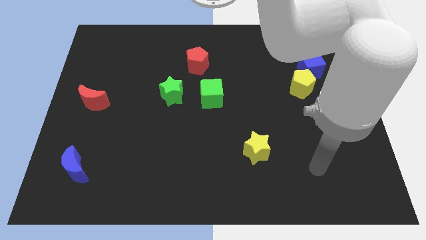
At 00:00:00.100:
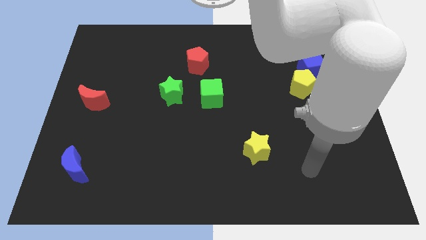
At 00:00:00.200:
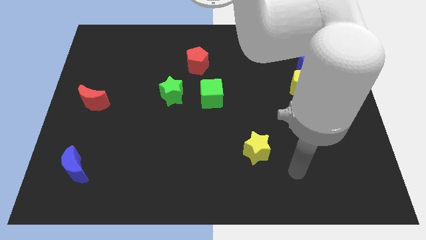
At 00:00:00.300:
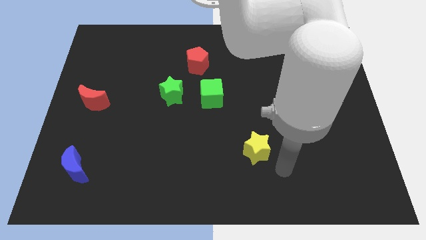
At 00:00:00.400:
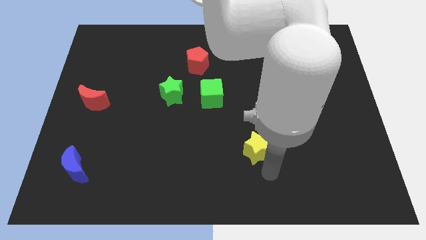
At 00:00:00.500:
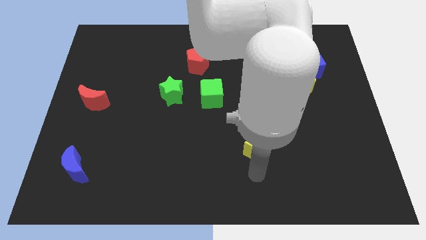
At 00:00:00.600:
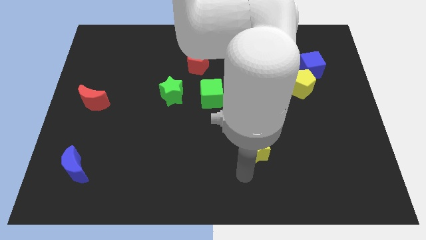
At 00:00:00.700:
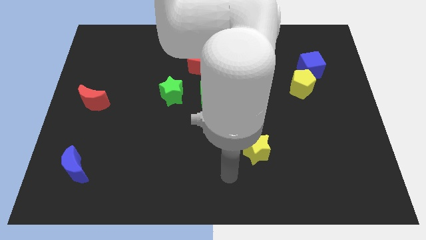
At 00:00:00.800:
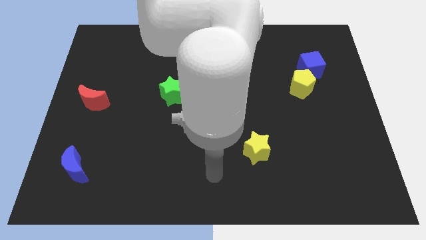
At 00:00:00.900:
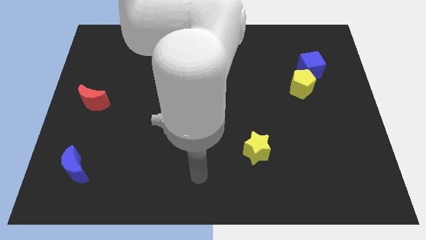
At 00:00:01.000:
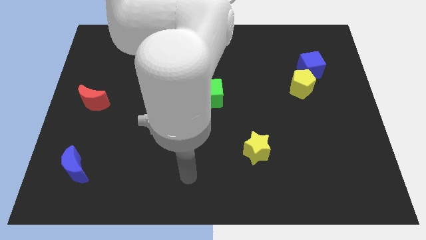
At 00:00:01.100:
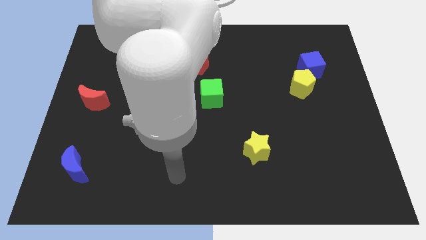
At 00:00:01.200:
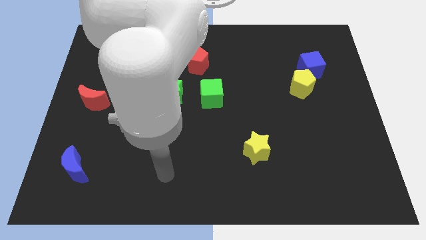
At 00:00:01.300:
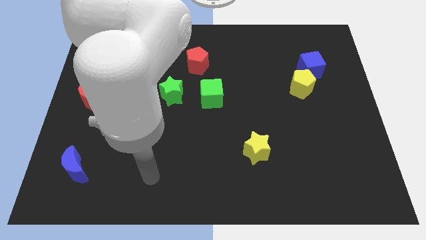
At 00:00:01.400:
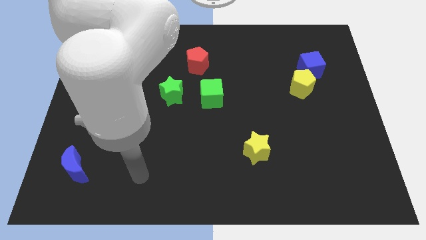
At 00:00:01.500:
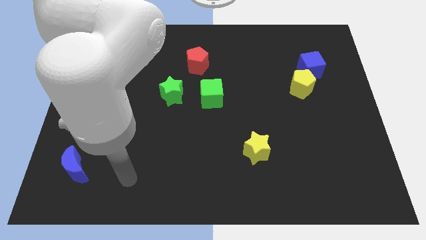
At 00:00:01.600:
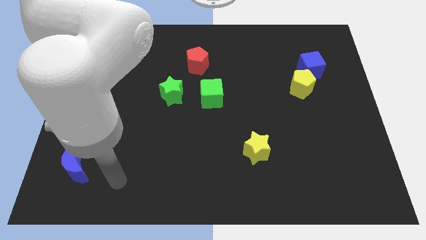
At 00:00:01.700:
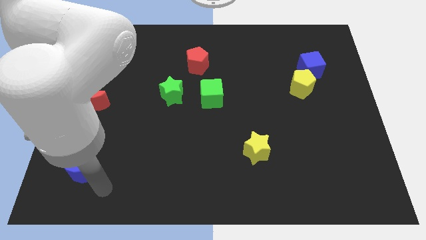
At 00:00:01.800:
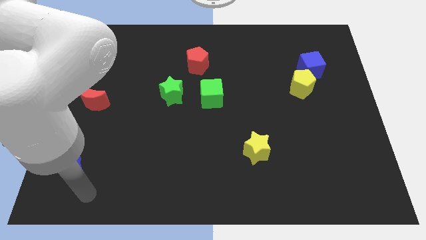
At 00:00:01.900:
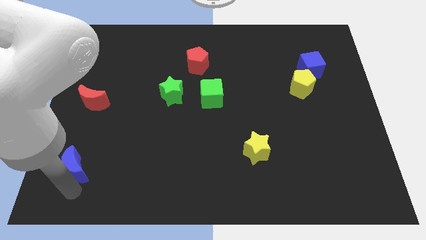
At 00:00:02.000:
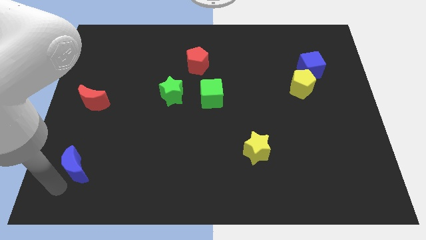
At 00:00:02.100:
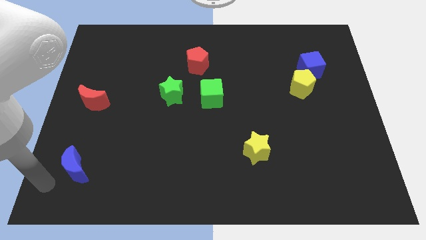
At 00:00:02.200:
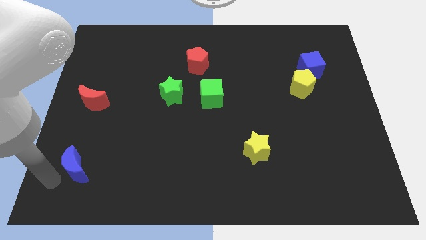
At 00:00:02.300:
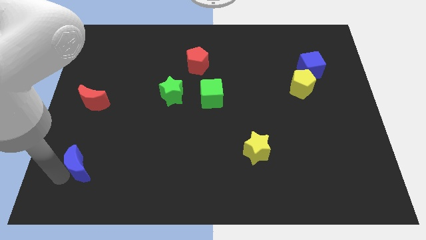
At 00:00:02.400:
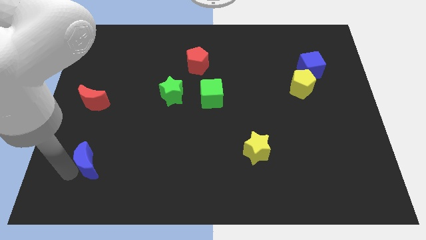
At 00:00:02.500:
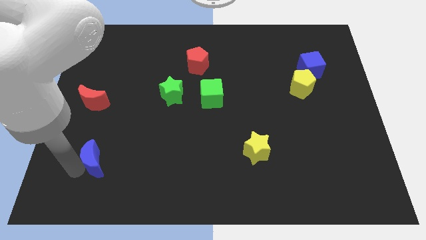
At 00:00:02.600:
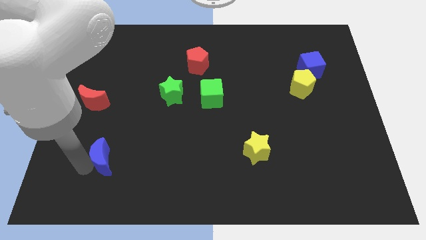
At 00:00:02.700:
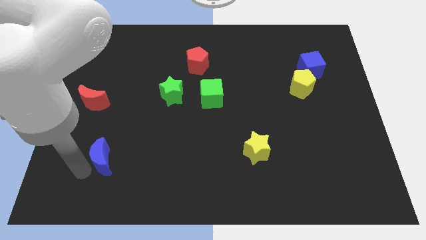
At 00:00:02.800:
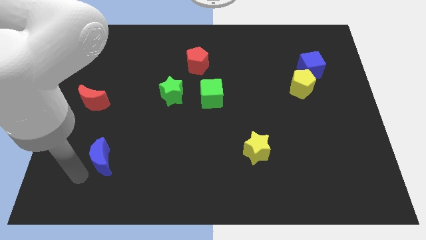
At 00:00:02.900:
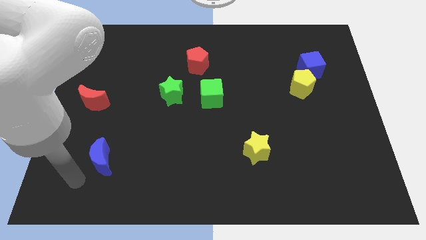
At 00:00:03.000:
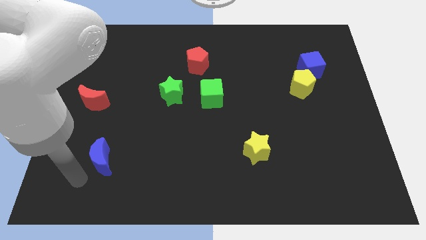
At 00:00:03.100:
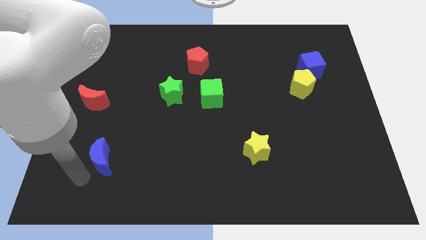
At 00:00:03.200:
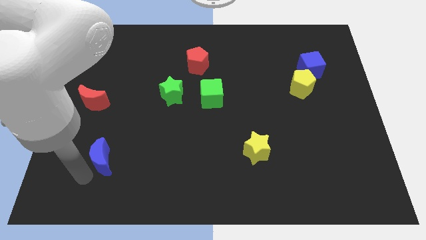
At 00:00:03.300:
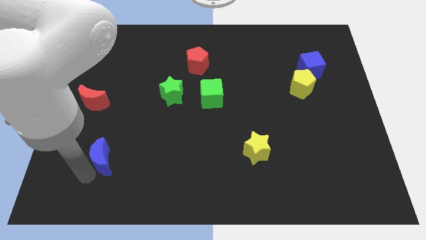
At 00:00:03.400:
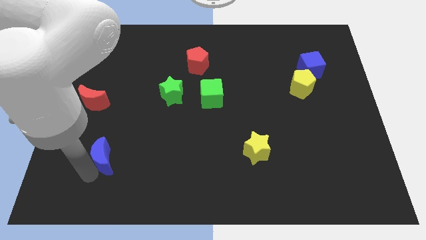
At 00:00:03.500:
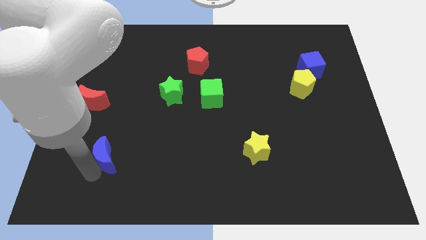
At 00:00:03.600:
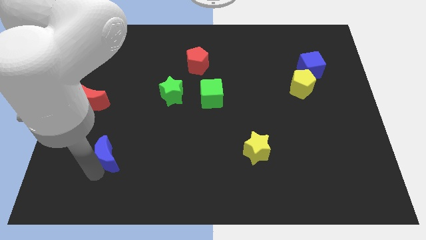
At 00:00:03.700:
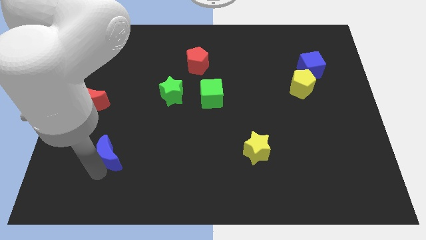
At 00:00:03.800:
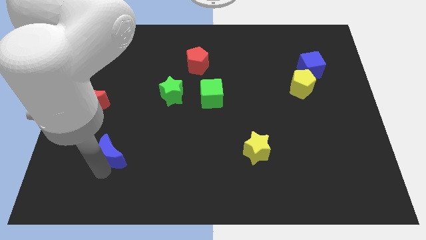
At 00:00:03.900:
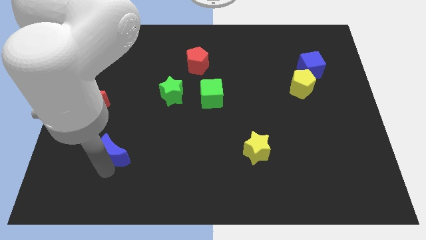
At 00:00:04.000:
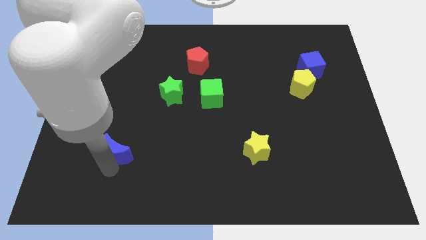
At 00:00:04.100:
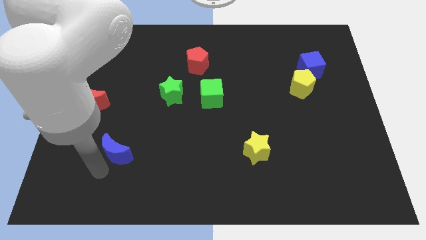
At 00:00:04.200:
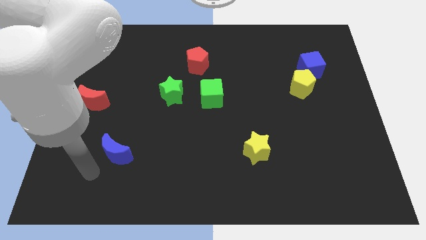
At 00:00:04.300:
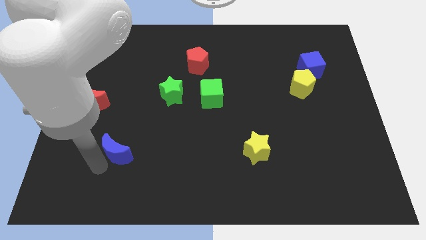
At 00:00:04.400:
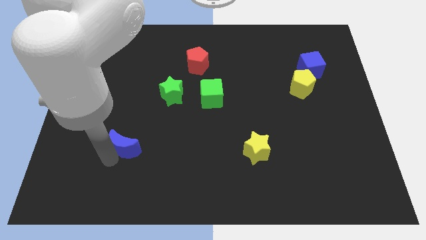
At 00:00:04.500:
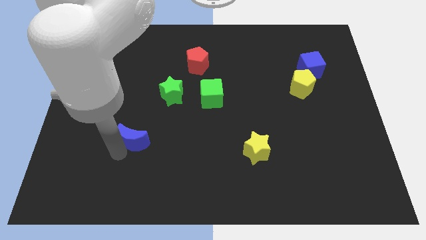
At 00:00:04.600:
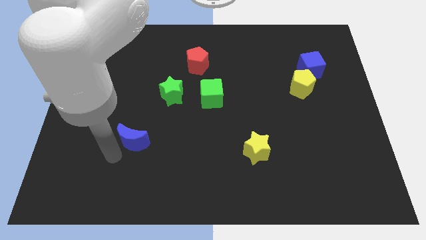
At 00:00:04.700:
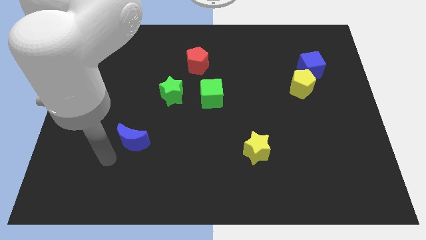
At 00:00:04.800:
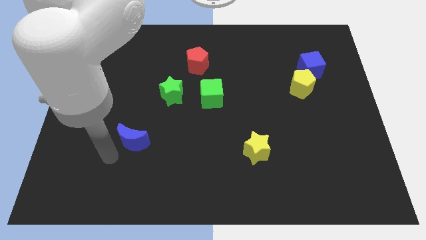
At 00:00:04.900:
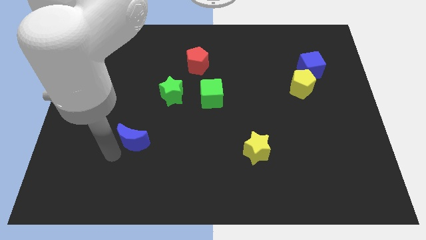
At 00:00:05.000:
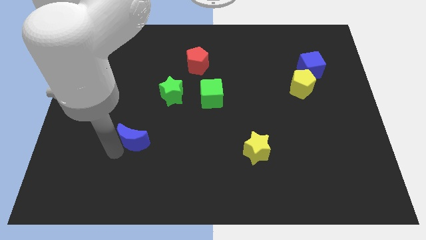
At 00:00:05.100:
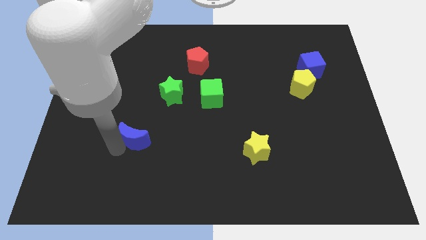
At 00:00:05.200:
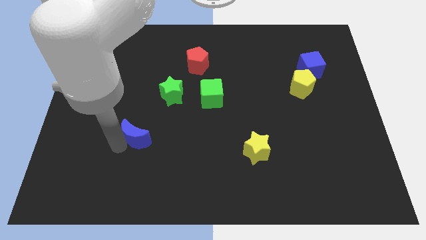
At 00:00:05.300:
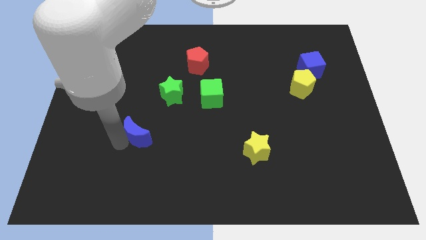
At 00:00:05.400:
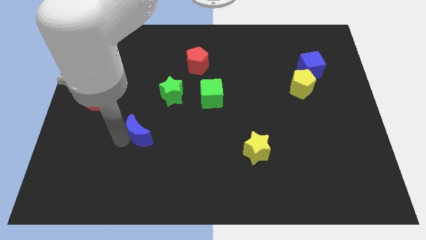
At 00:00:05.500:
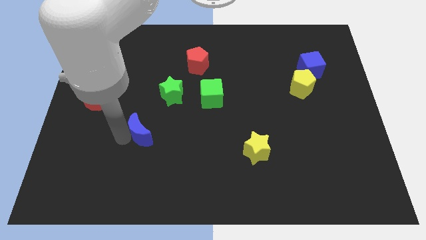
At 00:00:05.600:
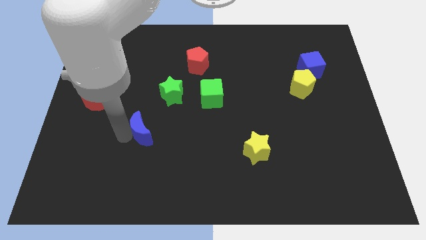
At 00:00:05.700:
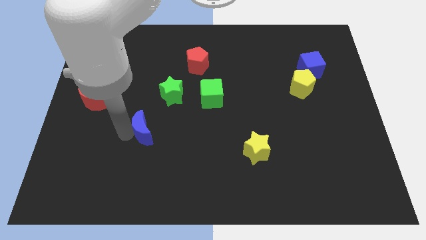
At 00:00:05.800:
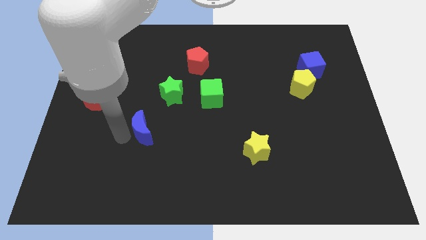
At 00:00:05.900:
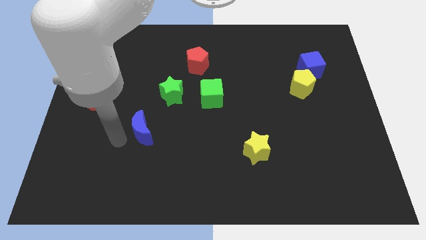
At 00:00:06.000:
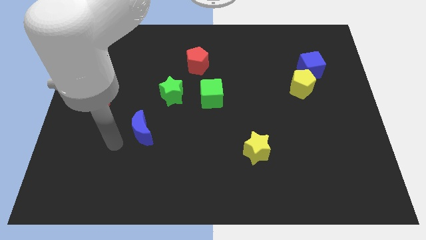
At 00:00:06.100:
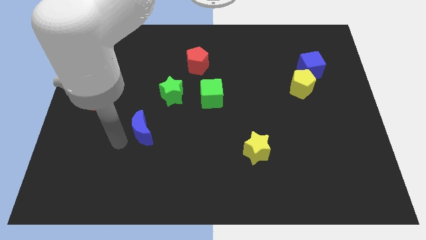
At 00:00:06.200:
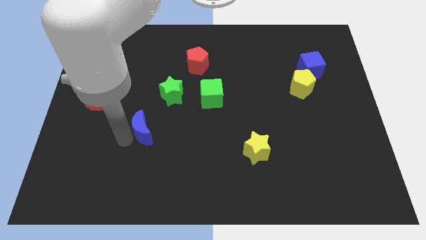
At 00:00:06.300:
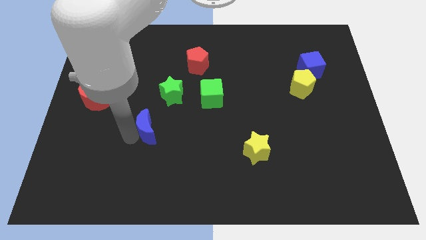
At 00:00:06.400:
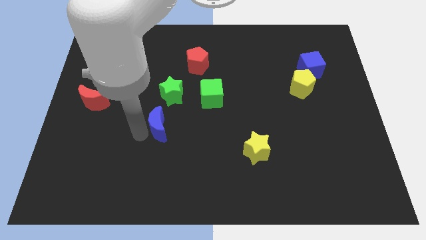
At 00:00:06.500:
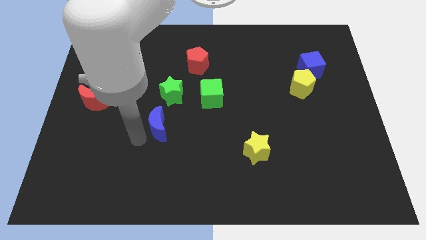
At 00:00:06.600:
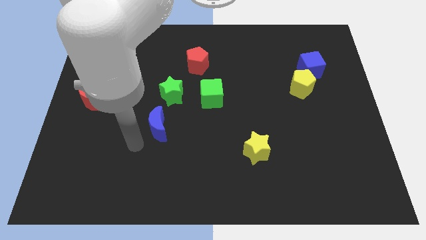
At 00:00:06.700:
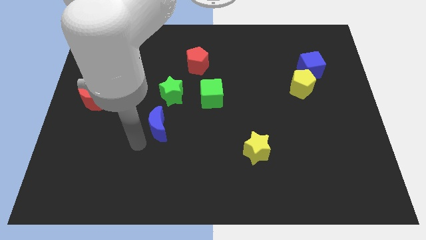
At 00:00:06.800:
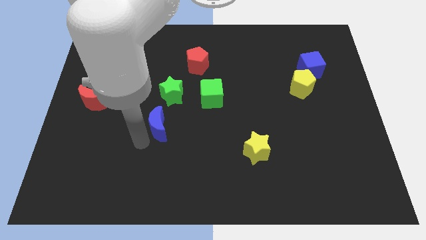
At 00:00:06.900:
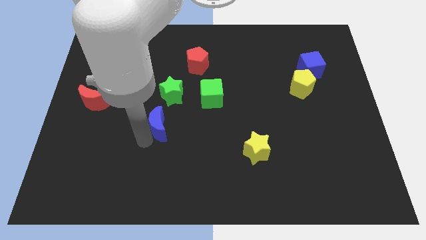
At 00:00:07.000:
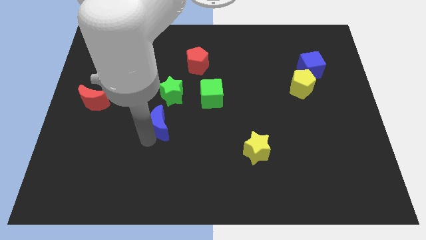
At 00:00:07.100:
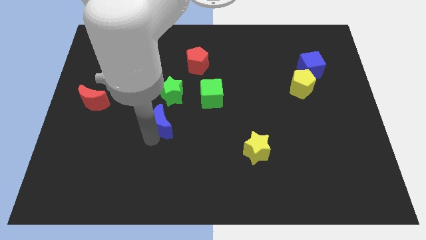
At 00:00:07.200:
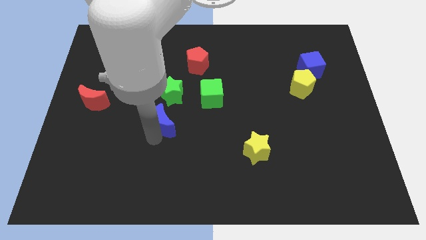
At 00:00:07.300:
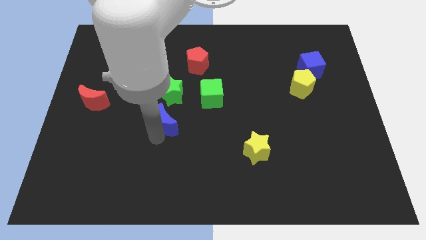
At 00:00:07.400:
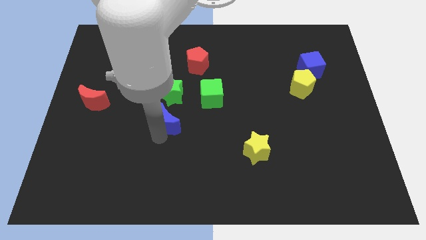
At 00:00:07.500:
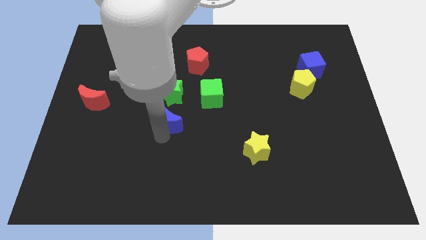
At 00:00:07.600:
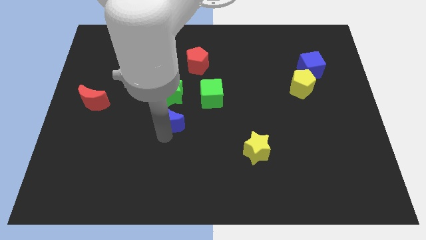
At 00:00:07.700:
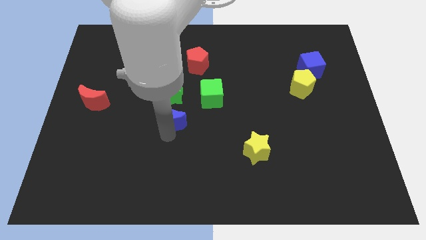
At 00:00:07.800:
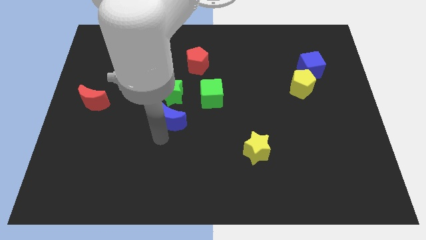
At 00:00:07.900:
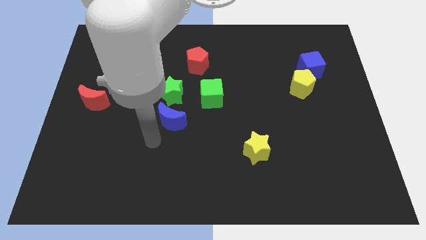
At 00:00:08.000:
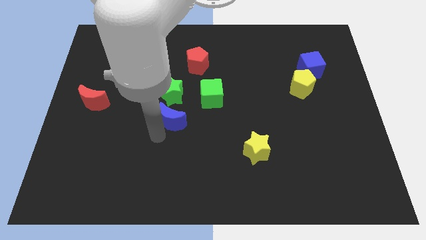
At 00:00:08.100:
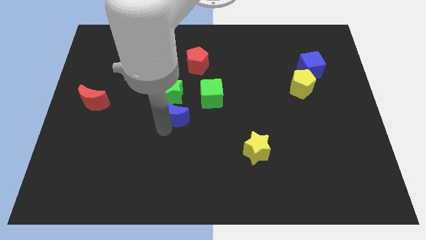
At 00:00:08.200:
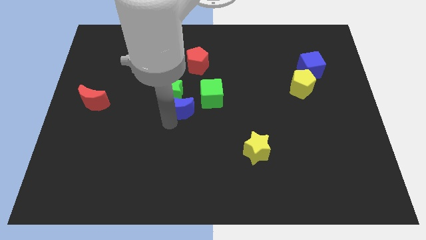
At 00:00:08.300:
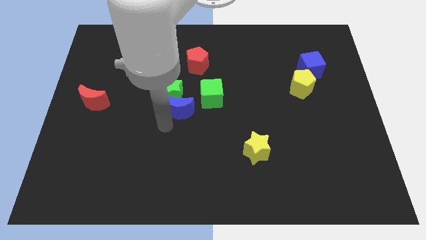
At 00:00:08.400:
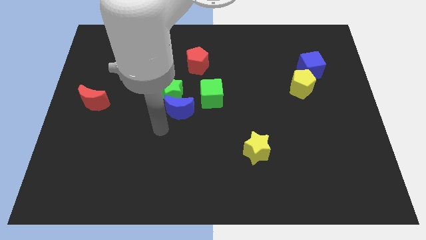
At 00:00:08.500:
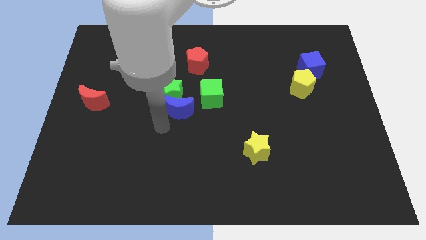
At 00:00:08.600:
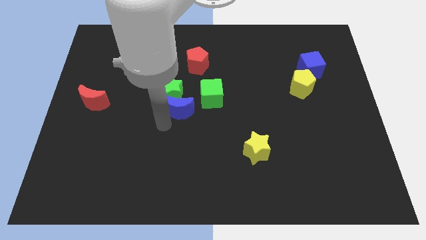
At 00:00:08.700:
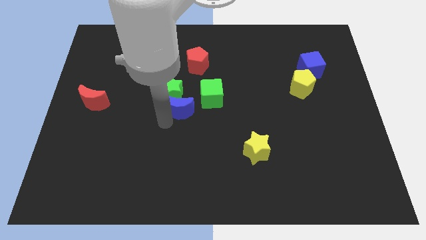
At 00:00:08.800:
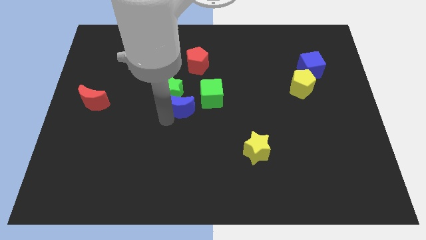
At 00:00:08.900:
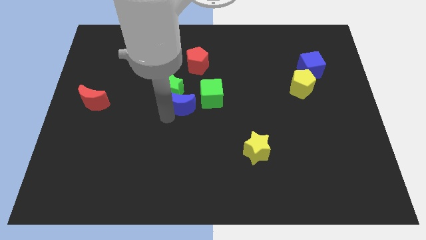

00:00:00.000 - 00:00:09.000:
push the blue moon to the bottom of the red pentagon
